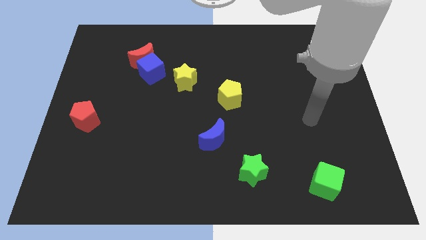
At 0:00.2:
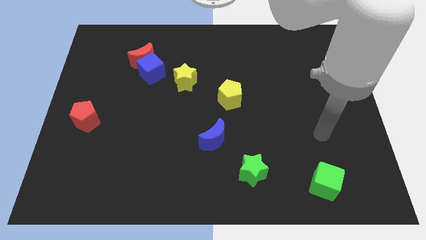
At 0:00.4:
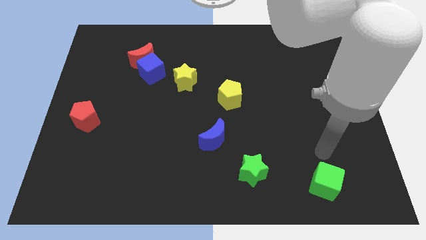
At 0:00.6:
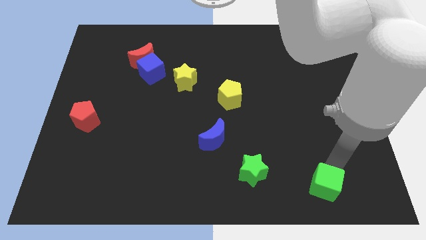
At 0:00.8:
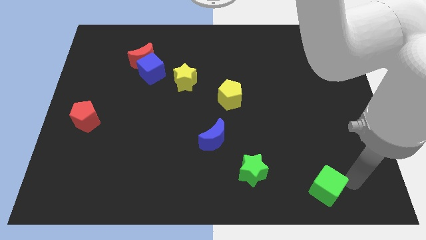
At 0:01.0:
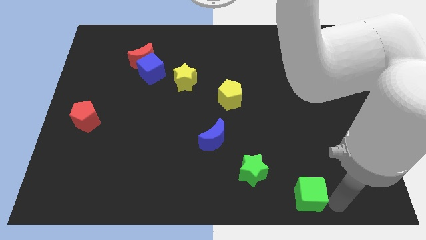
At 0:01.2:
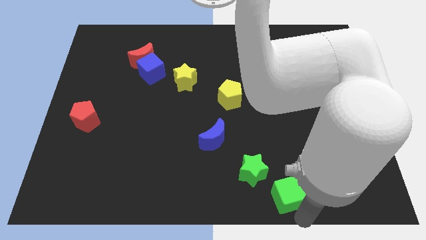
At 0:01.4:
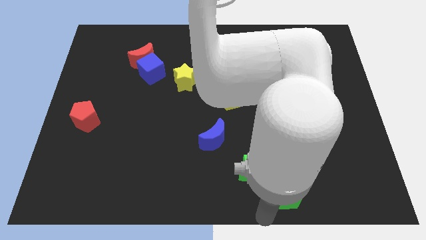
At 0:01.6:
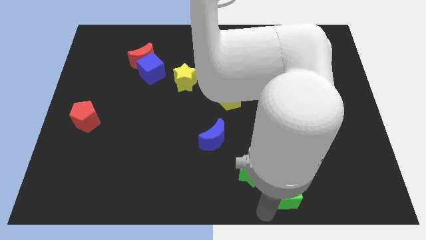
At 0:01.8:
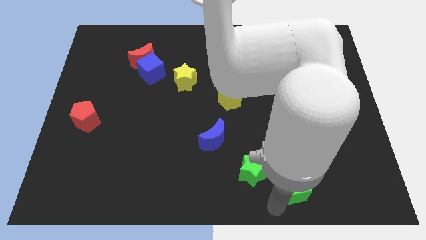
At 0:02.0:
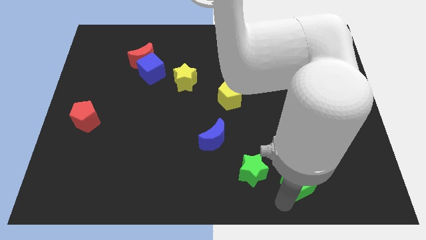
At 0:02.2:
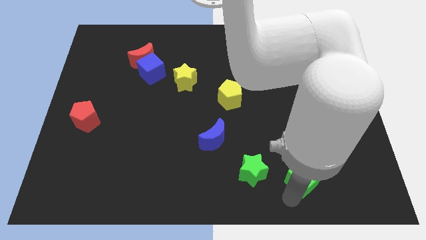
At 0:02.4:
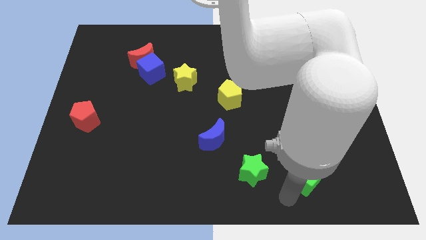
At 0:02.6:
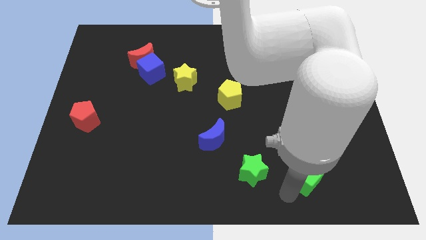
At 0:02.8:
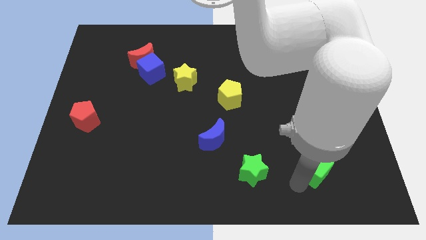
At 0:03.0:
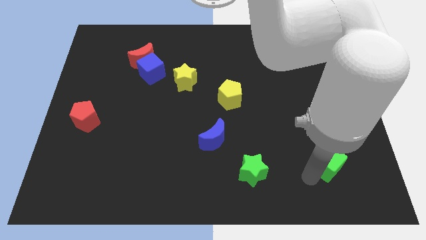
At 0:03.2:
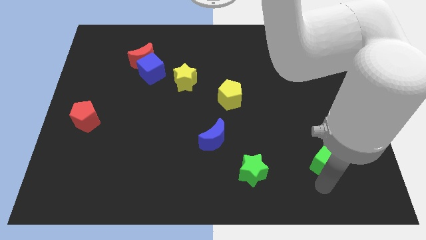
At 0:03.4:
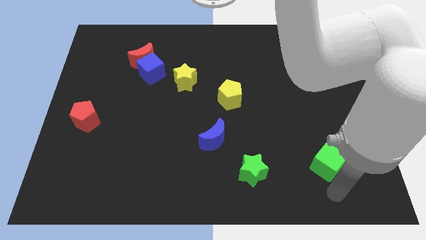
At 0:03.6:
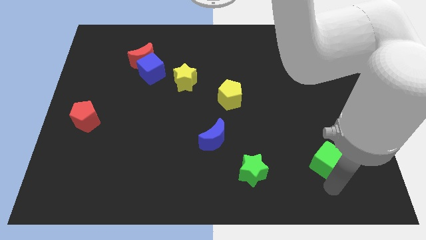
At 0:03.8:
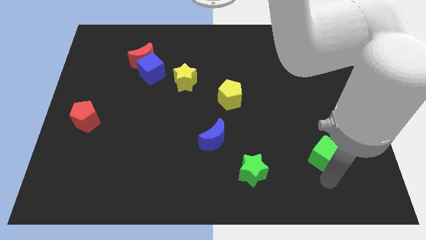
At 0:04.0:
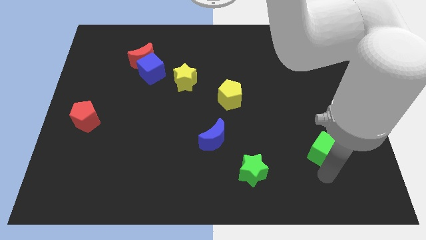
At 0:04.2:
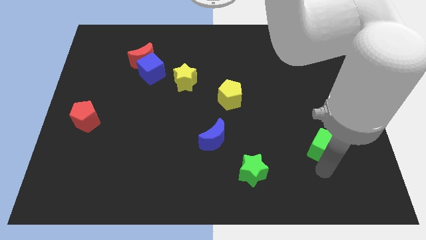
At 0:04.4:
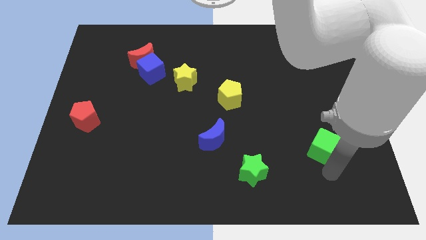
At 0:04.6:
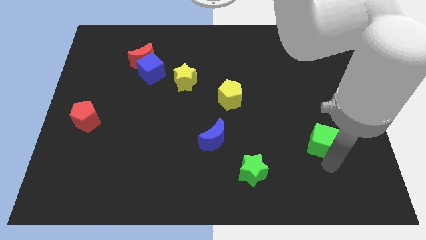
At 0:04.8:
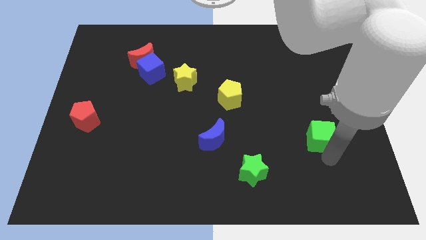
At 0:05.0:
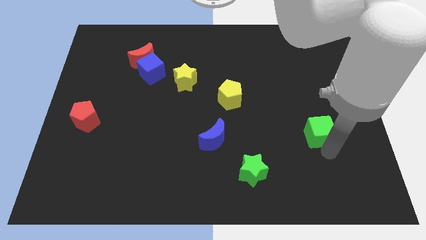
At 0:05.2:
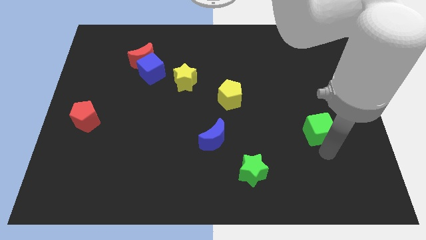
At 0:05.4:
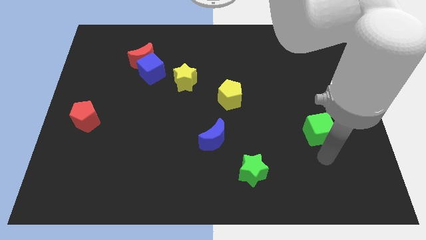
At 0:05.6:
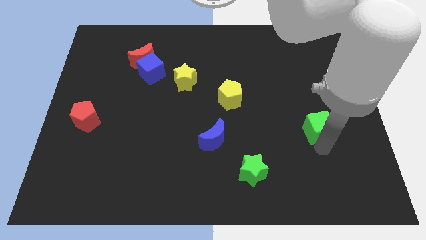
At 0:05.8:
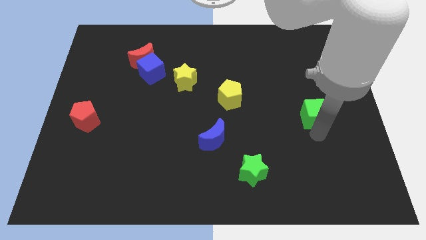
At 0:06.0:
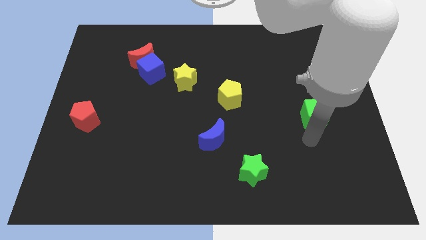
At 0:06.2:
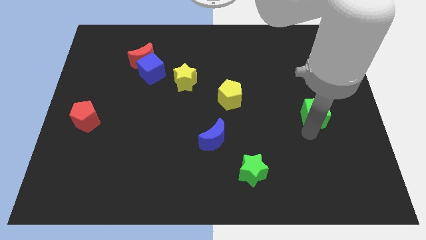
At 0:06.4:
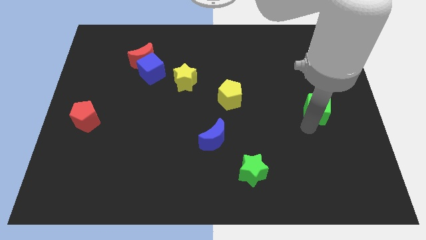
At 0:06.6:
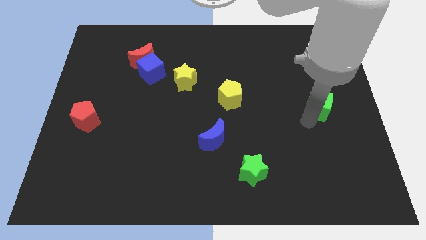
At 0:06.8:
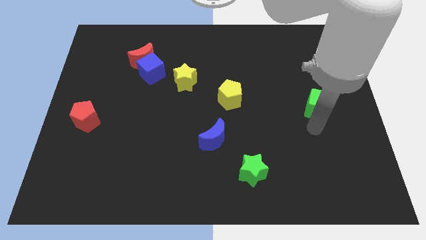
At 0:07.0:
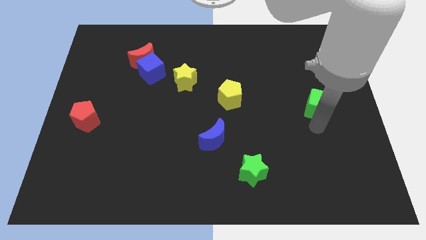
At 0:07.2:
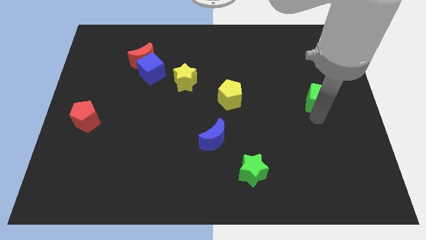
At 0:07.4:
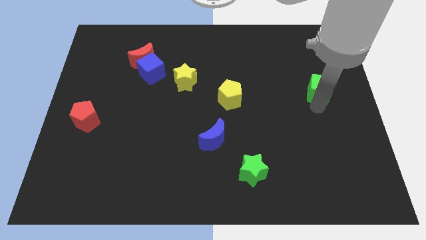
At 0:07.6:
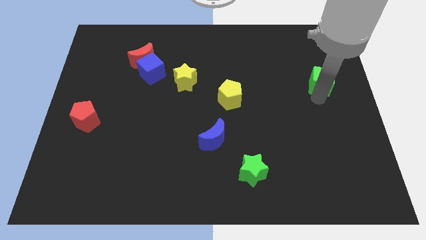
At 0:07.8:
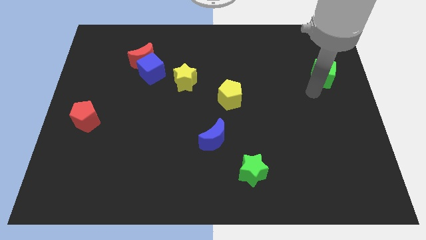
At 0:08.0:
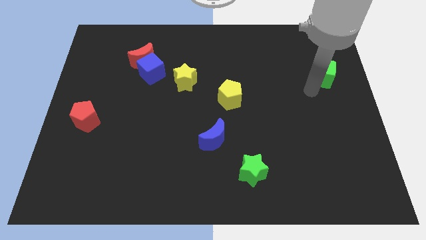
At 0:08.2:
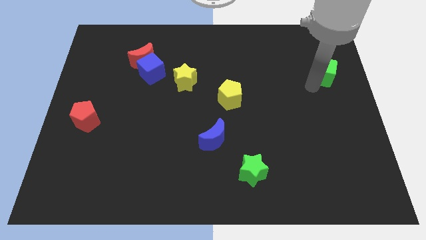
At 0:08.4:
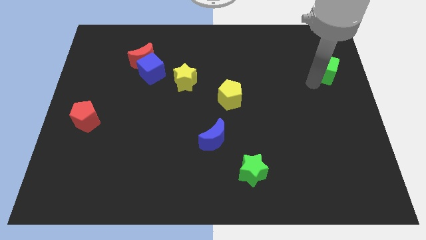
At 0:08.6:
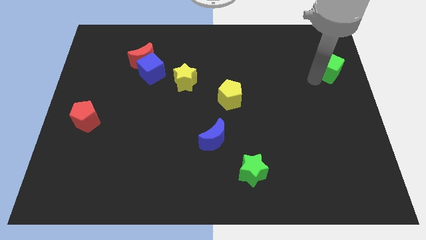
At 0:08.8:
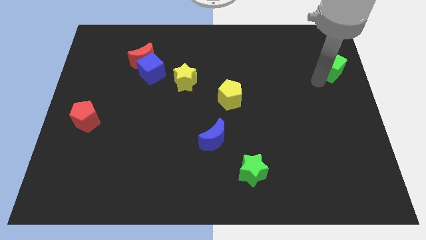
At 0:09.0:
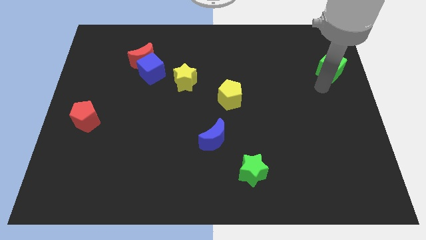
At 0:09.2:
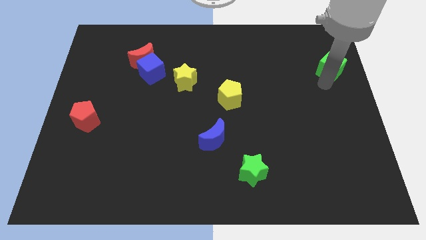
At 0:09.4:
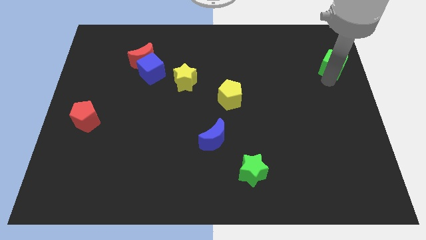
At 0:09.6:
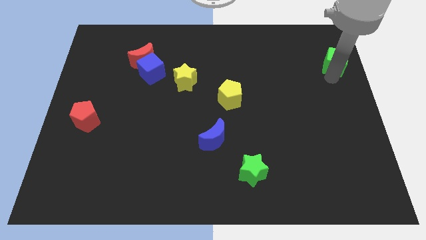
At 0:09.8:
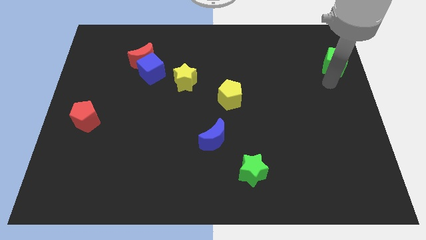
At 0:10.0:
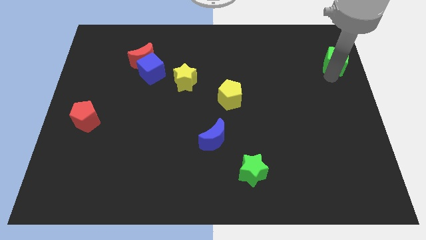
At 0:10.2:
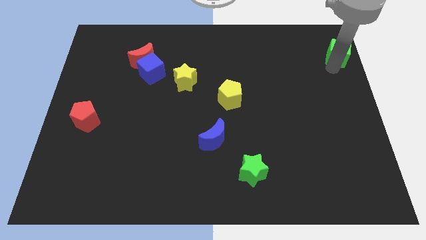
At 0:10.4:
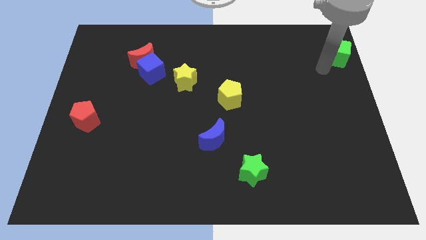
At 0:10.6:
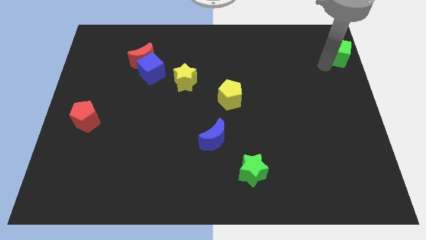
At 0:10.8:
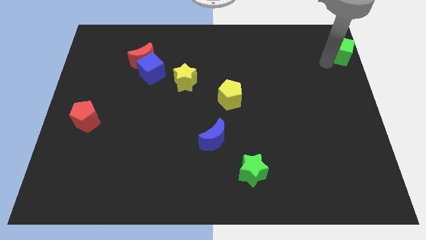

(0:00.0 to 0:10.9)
put the green cube to the top right
